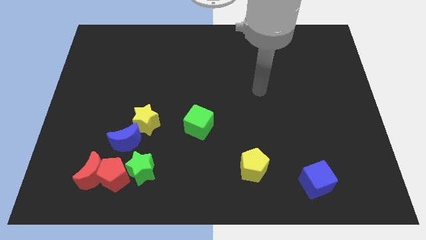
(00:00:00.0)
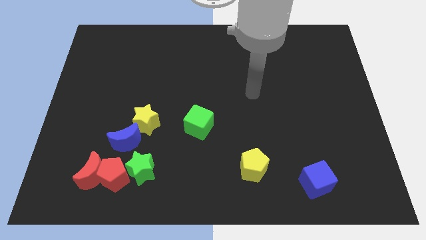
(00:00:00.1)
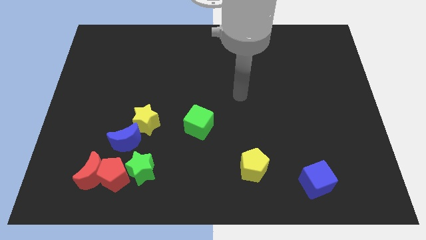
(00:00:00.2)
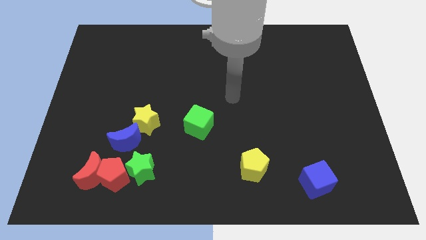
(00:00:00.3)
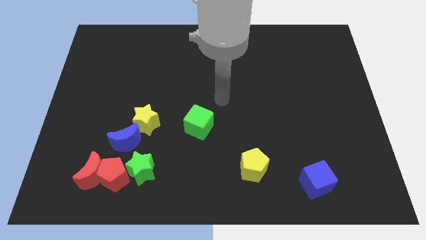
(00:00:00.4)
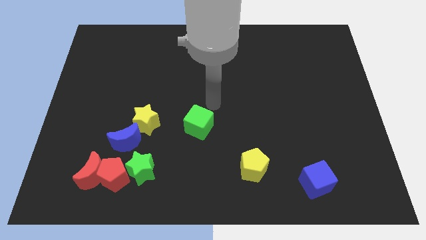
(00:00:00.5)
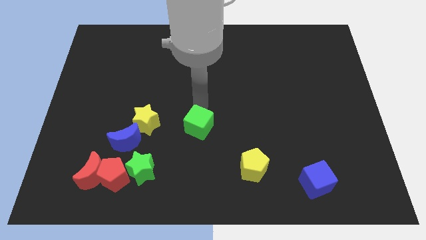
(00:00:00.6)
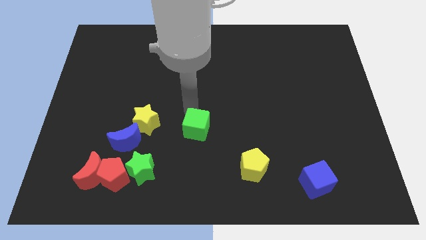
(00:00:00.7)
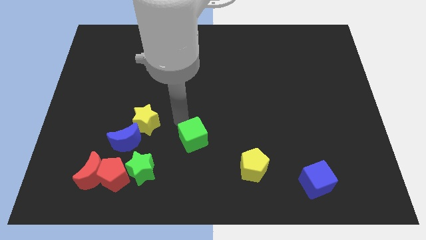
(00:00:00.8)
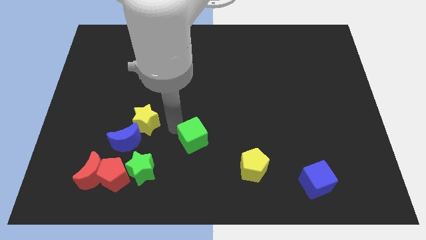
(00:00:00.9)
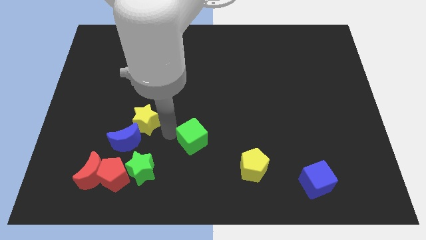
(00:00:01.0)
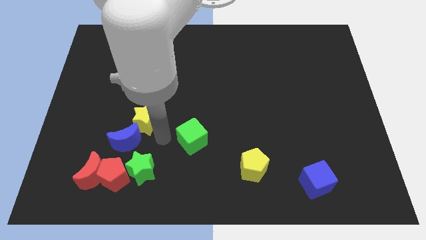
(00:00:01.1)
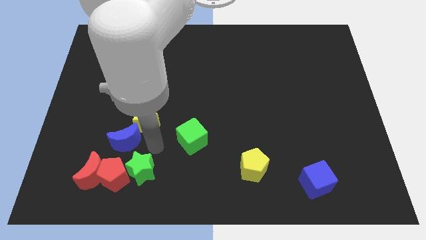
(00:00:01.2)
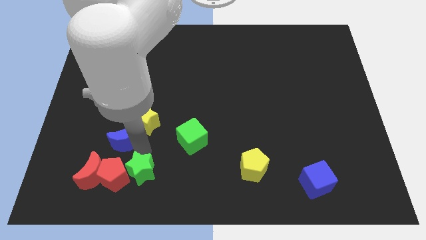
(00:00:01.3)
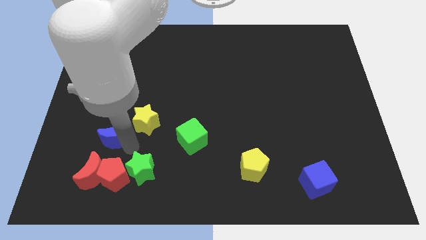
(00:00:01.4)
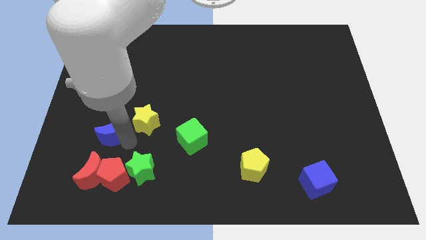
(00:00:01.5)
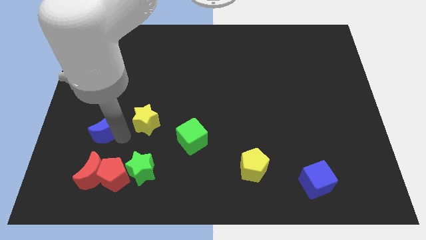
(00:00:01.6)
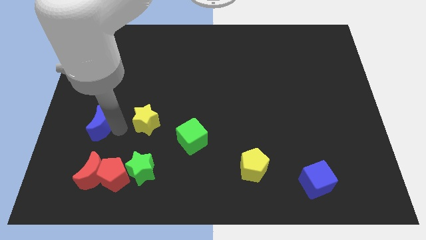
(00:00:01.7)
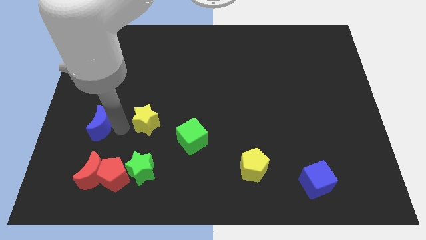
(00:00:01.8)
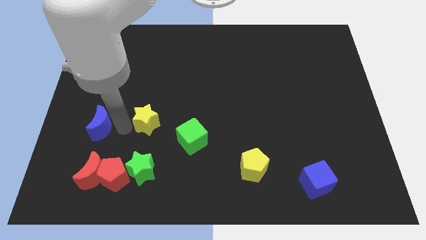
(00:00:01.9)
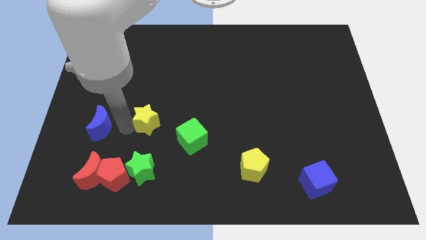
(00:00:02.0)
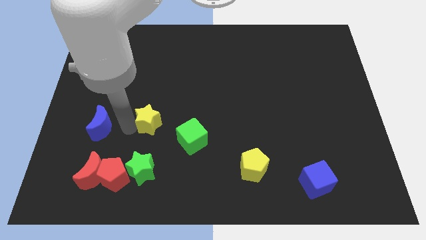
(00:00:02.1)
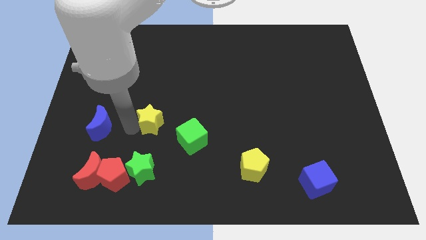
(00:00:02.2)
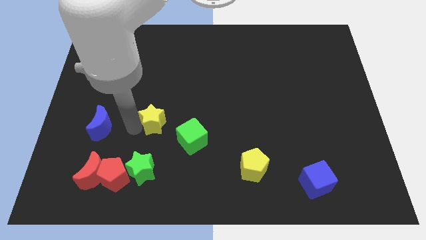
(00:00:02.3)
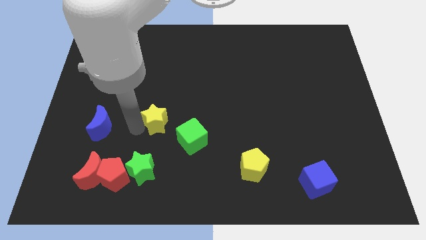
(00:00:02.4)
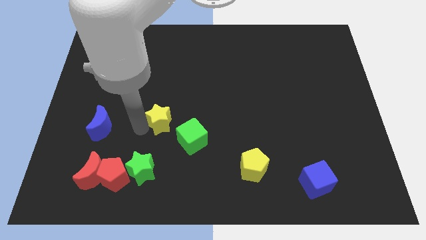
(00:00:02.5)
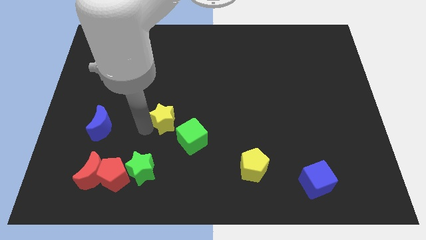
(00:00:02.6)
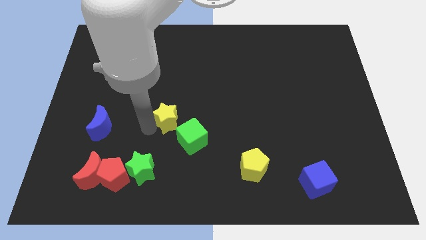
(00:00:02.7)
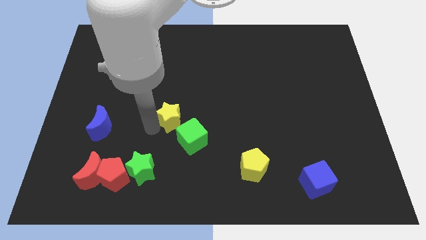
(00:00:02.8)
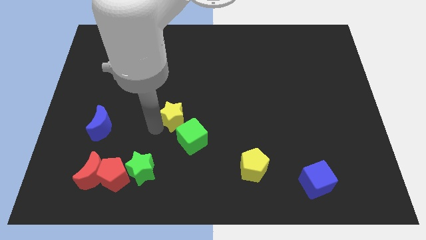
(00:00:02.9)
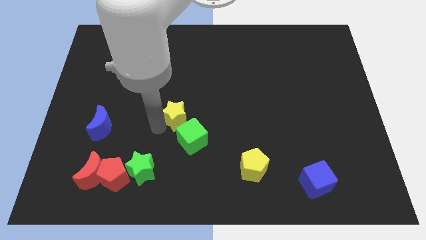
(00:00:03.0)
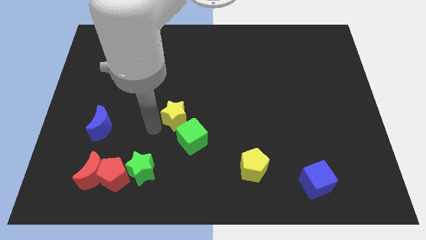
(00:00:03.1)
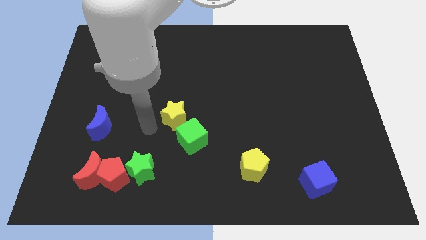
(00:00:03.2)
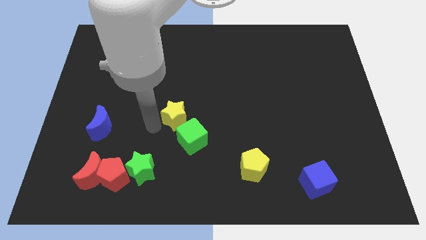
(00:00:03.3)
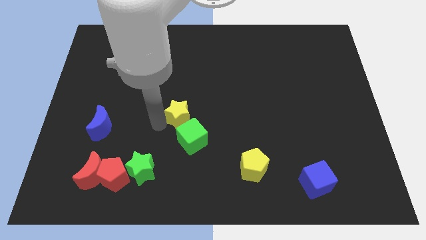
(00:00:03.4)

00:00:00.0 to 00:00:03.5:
move the yellow star a little bit right

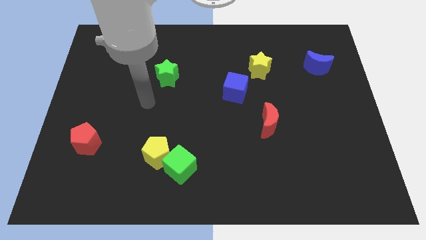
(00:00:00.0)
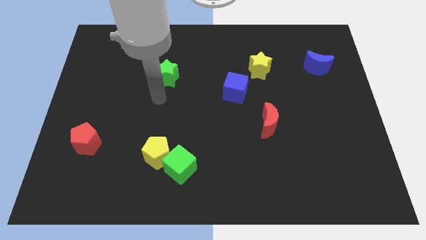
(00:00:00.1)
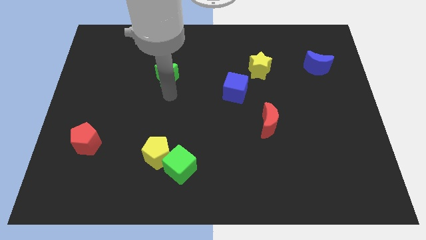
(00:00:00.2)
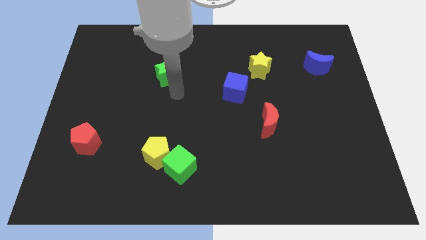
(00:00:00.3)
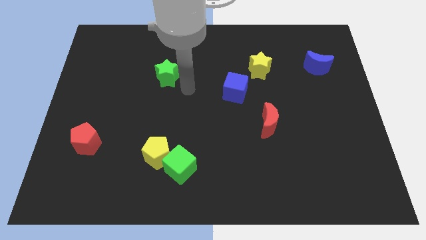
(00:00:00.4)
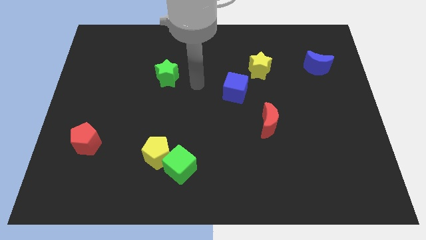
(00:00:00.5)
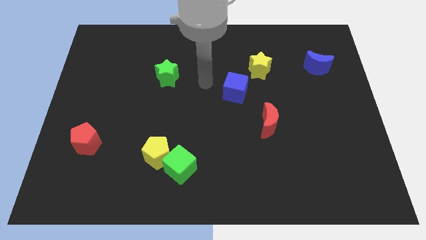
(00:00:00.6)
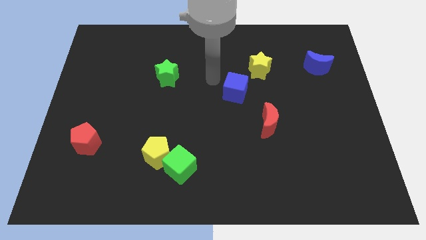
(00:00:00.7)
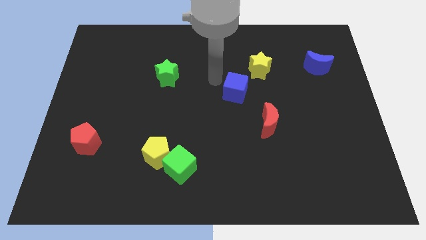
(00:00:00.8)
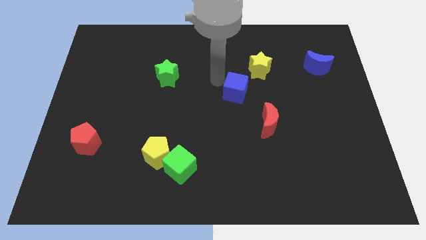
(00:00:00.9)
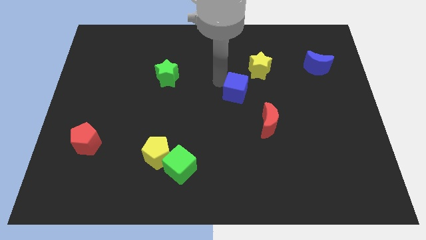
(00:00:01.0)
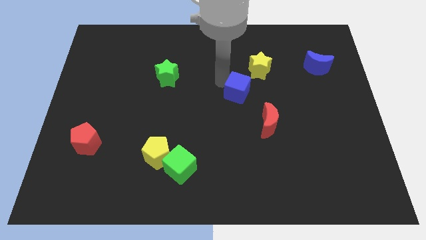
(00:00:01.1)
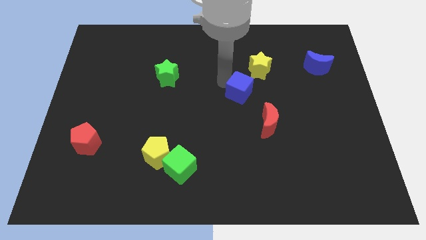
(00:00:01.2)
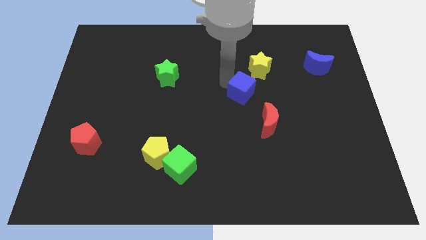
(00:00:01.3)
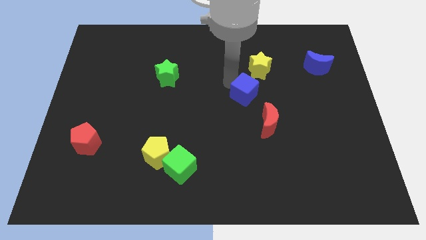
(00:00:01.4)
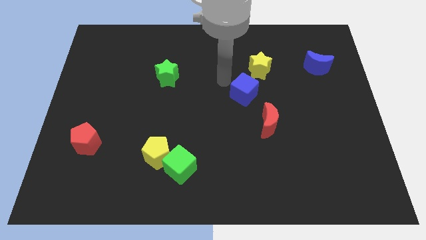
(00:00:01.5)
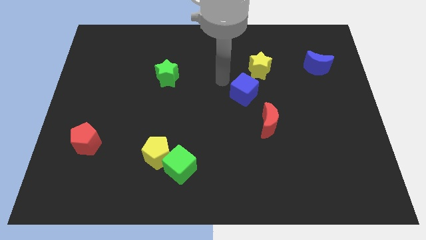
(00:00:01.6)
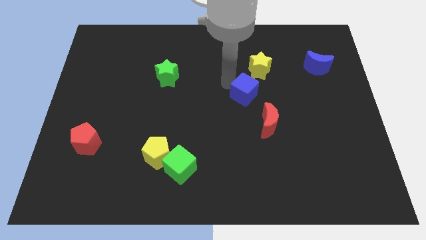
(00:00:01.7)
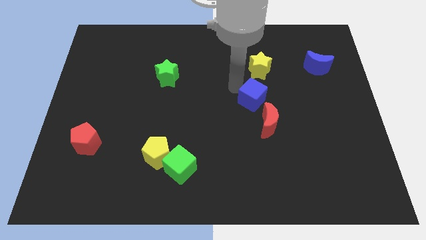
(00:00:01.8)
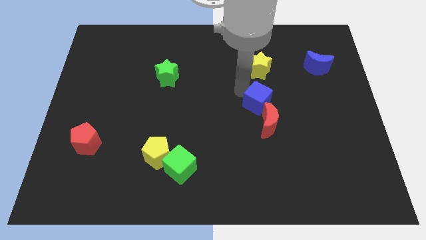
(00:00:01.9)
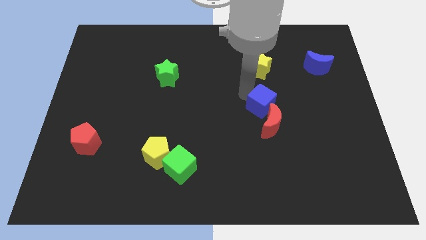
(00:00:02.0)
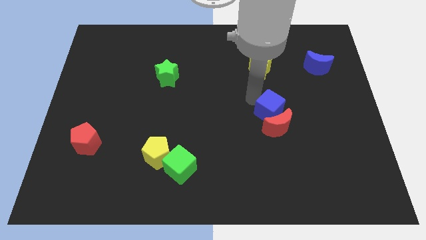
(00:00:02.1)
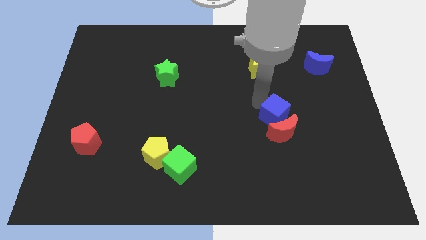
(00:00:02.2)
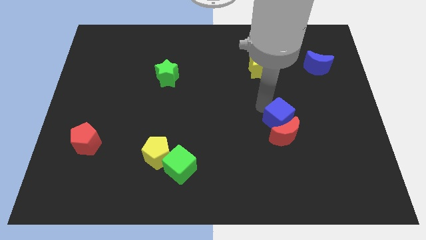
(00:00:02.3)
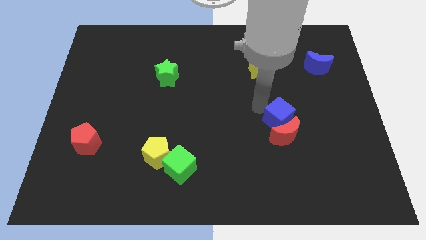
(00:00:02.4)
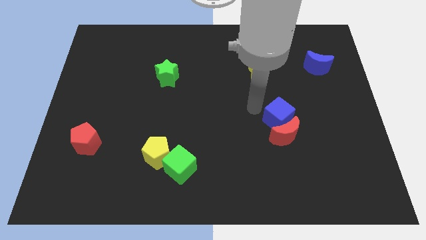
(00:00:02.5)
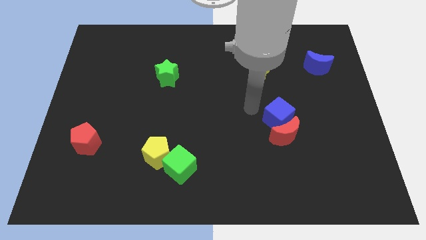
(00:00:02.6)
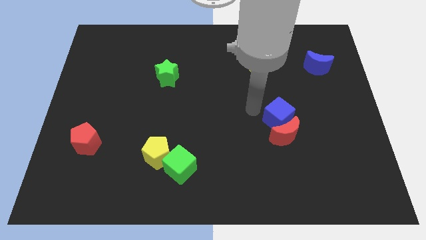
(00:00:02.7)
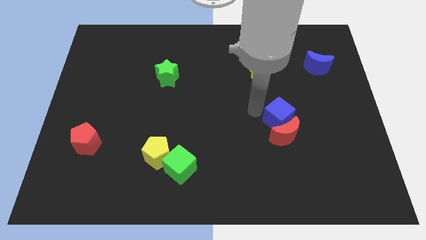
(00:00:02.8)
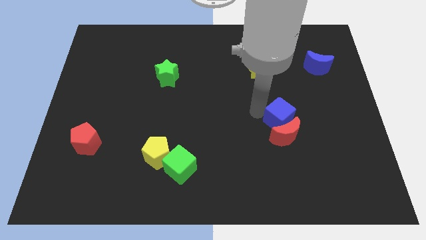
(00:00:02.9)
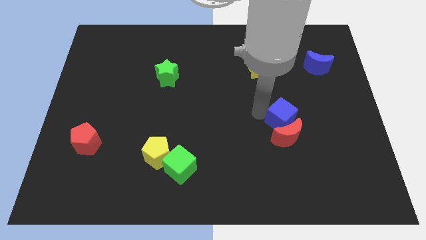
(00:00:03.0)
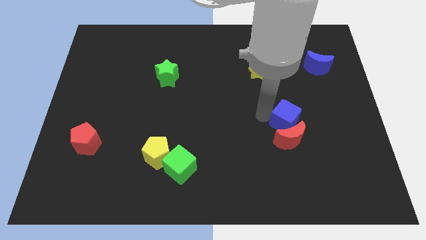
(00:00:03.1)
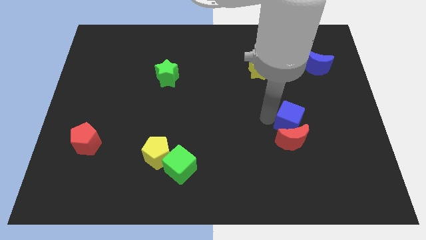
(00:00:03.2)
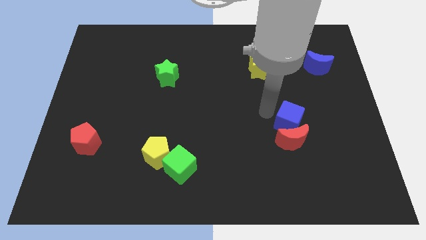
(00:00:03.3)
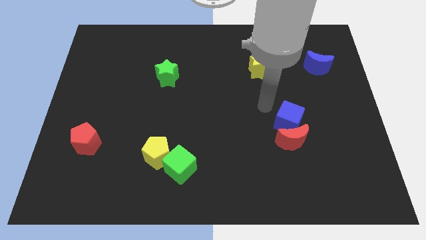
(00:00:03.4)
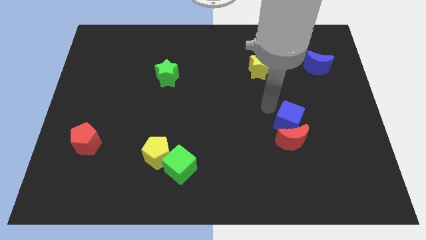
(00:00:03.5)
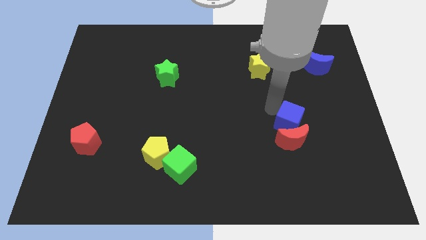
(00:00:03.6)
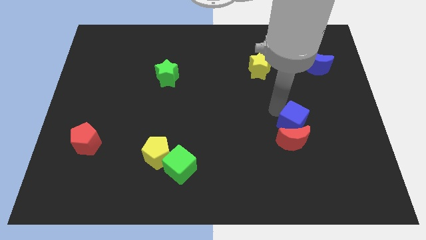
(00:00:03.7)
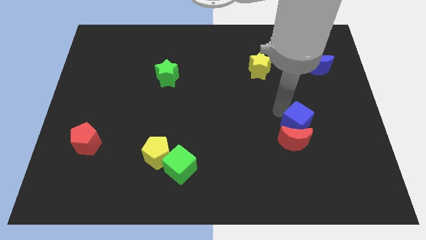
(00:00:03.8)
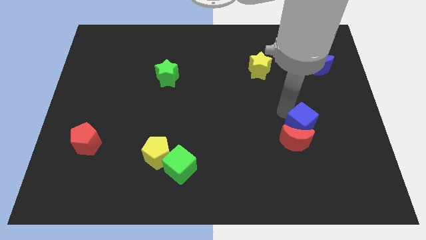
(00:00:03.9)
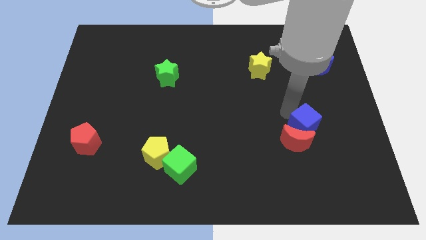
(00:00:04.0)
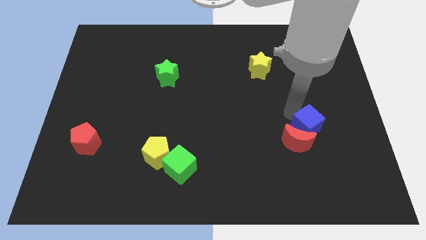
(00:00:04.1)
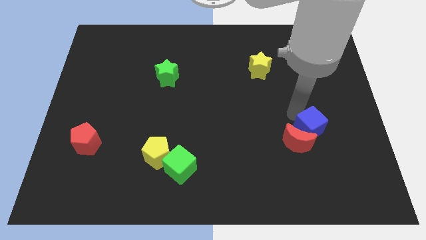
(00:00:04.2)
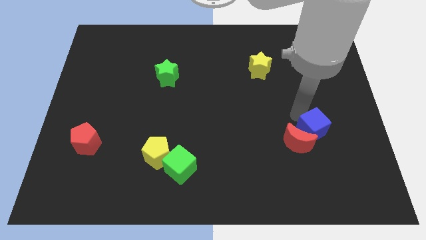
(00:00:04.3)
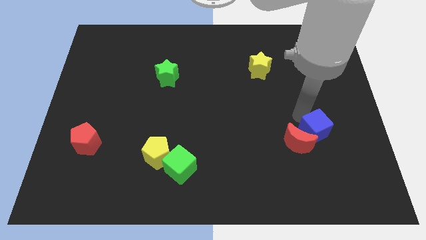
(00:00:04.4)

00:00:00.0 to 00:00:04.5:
slide the blue cube downwards and then right

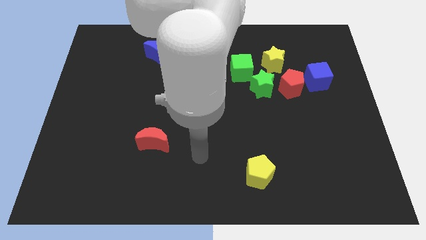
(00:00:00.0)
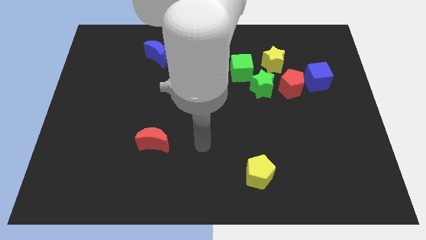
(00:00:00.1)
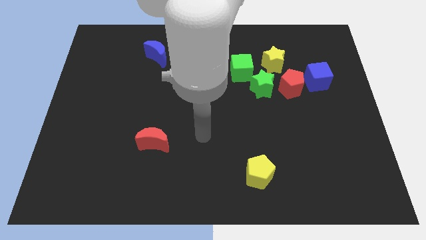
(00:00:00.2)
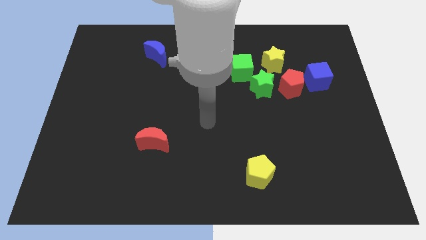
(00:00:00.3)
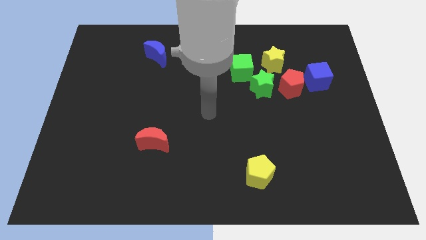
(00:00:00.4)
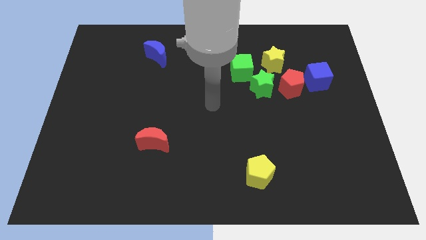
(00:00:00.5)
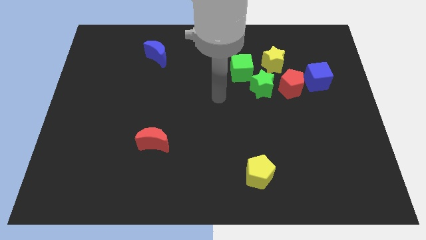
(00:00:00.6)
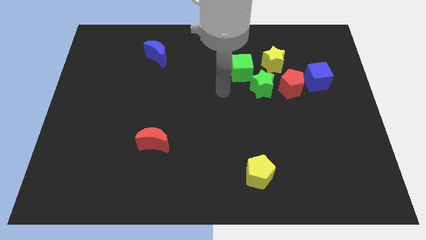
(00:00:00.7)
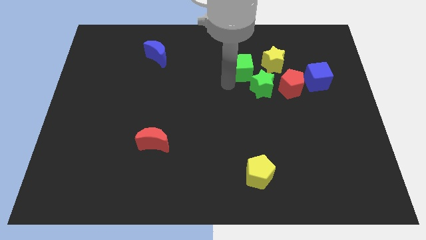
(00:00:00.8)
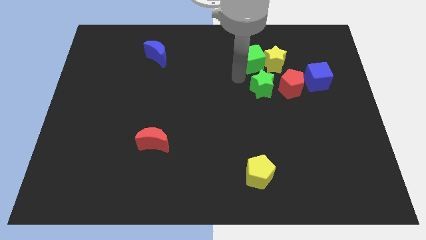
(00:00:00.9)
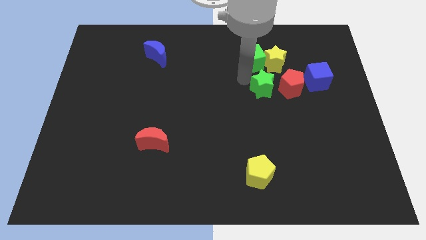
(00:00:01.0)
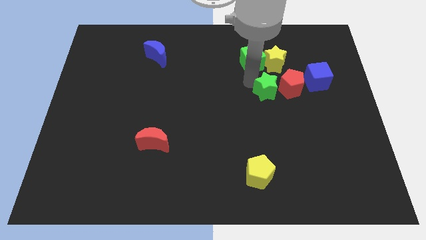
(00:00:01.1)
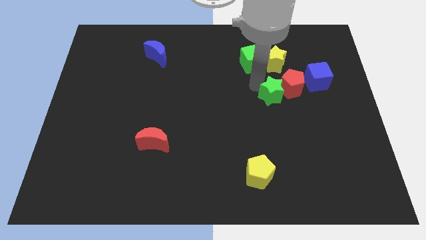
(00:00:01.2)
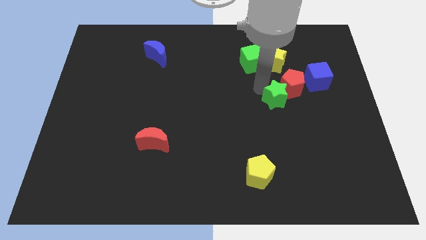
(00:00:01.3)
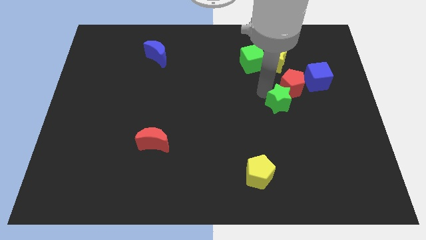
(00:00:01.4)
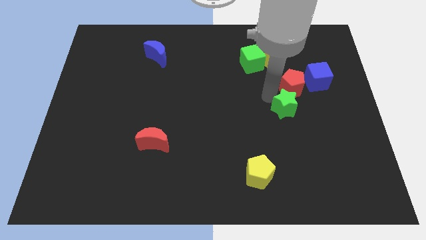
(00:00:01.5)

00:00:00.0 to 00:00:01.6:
slightly push the green star downwards and then right
